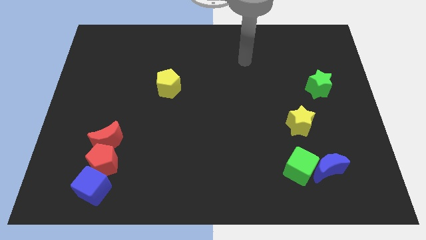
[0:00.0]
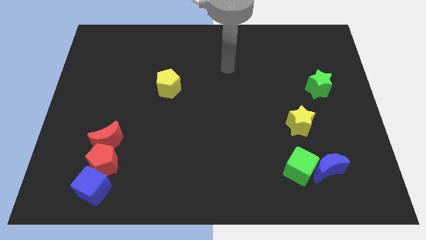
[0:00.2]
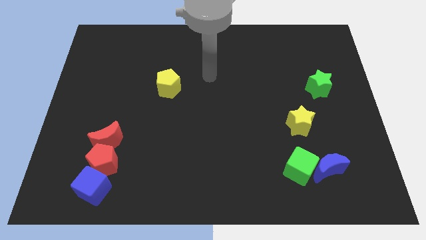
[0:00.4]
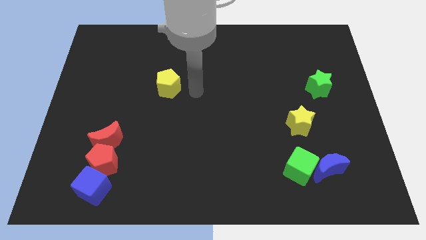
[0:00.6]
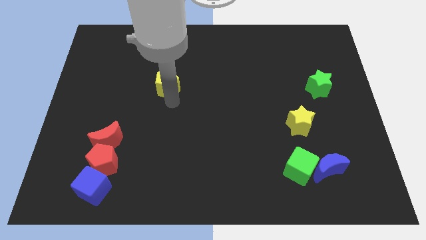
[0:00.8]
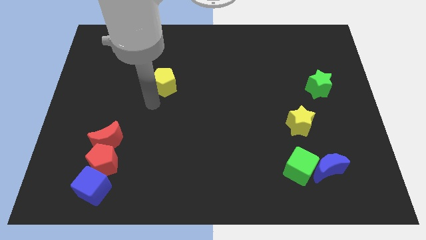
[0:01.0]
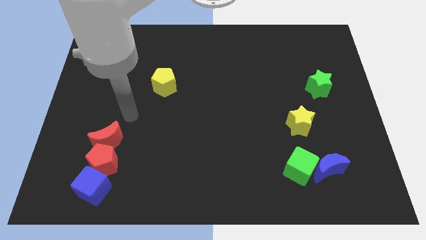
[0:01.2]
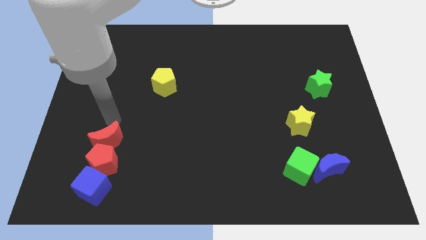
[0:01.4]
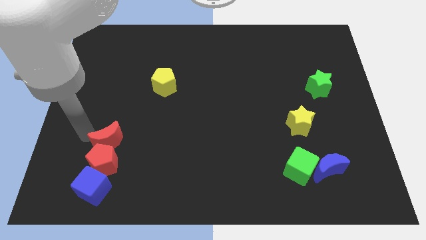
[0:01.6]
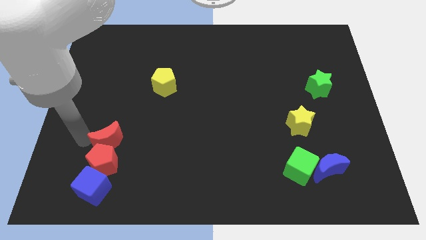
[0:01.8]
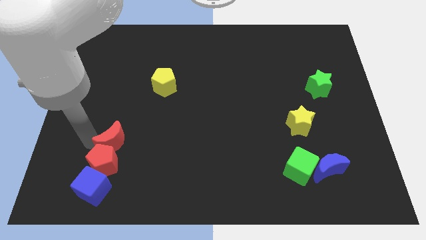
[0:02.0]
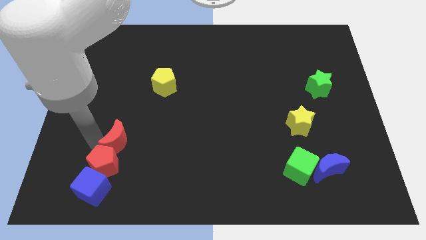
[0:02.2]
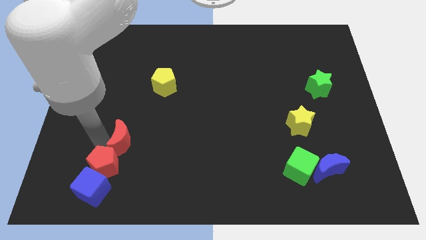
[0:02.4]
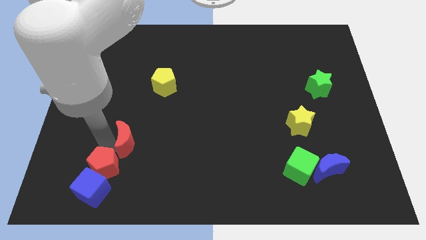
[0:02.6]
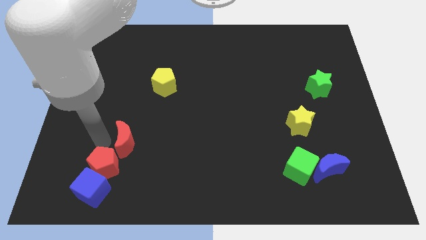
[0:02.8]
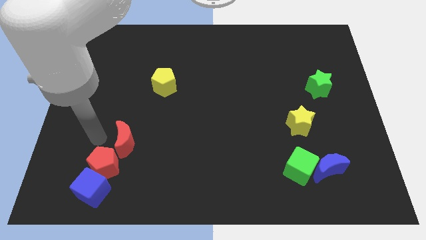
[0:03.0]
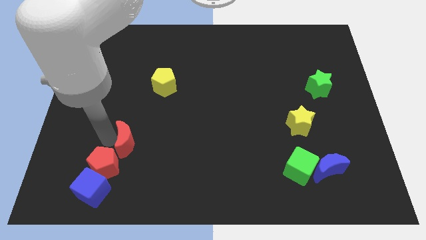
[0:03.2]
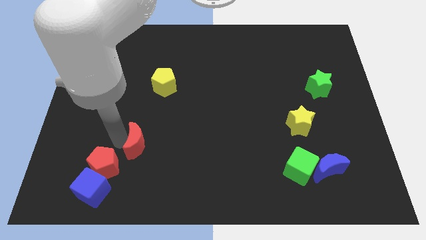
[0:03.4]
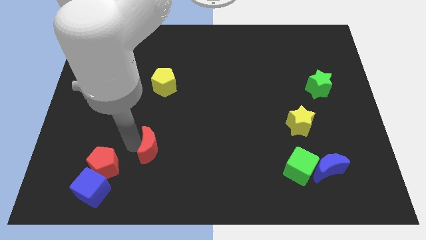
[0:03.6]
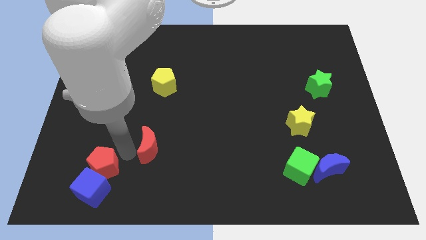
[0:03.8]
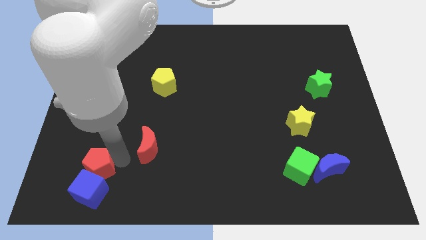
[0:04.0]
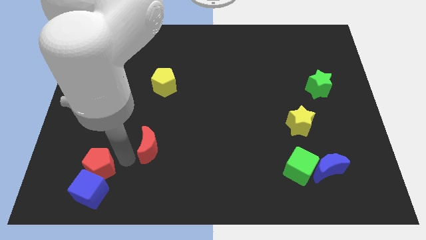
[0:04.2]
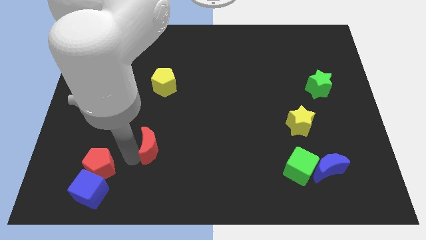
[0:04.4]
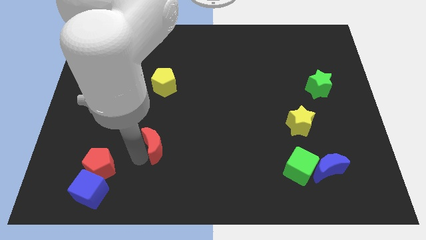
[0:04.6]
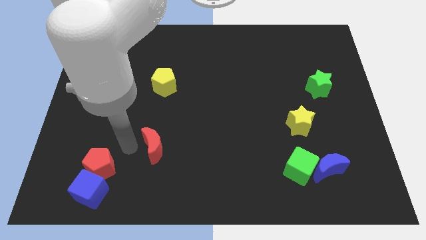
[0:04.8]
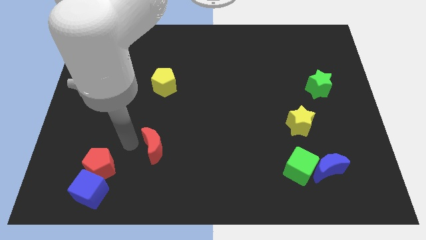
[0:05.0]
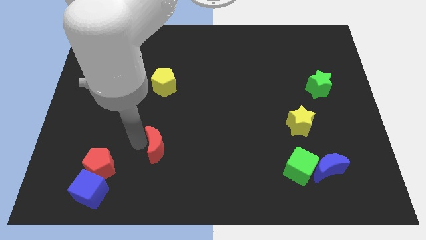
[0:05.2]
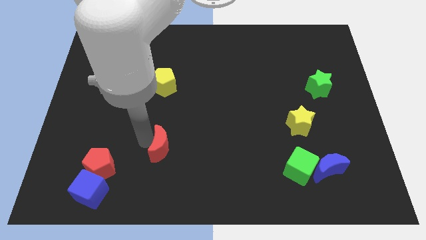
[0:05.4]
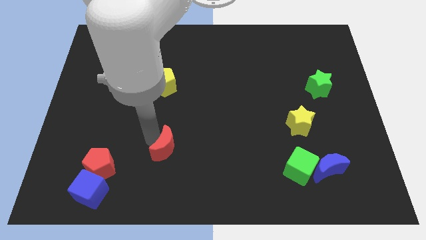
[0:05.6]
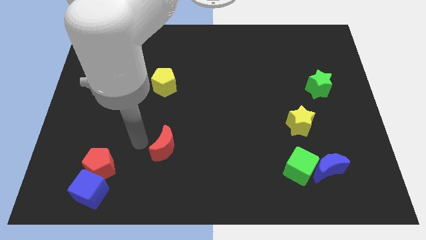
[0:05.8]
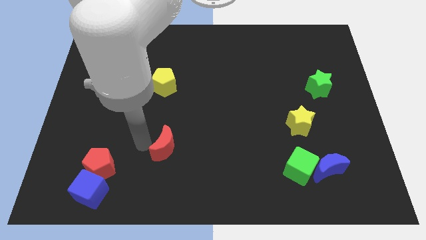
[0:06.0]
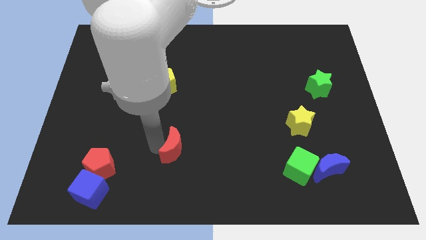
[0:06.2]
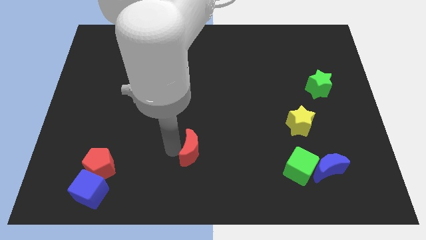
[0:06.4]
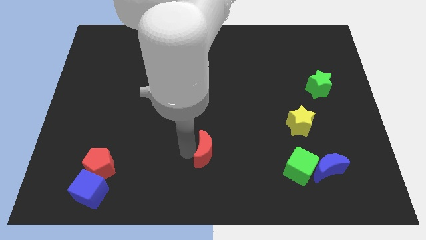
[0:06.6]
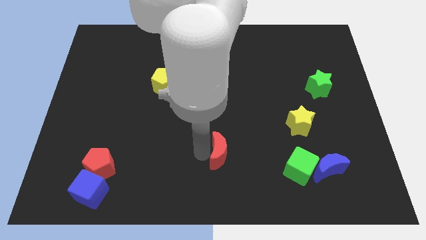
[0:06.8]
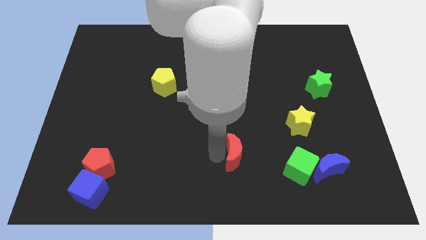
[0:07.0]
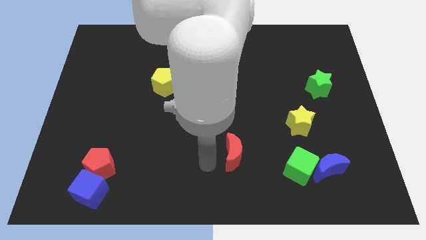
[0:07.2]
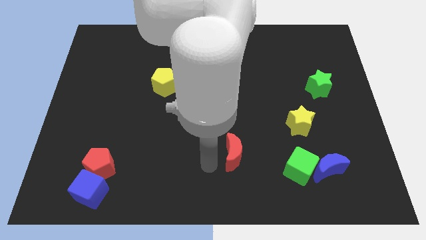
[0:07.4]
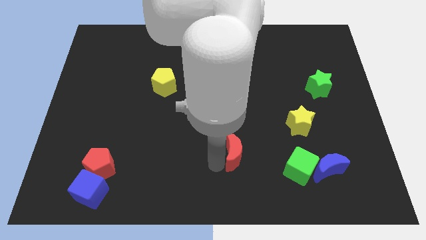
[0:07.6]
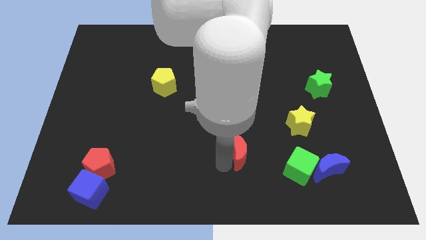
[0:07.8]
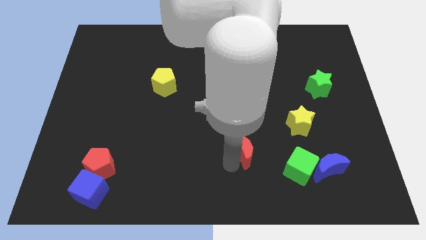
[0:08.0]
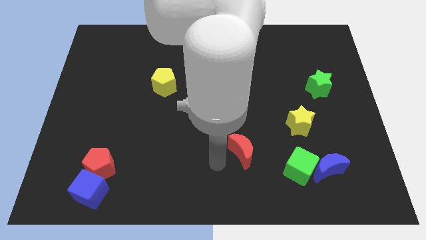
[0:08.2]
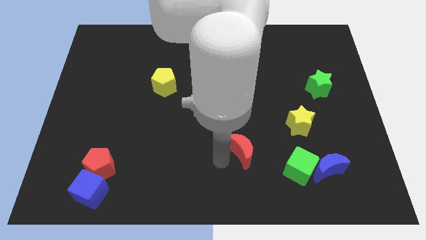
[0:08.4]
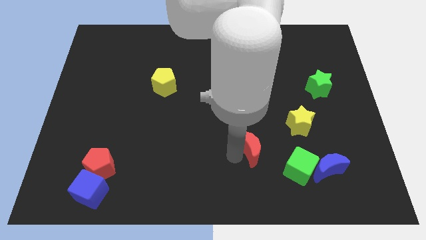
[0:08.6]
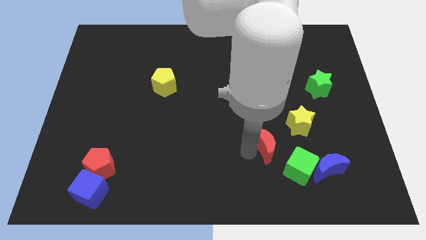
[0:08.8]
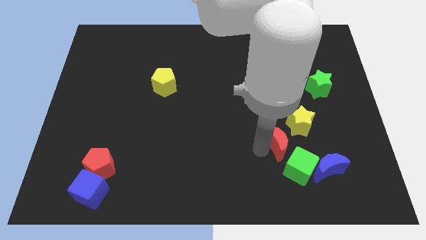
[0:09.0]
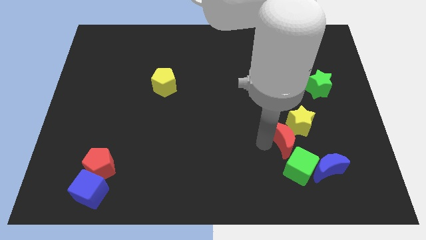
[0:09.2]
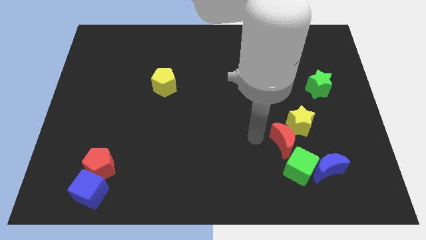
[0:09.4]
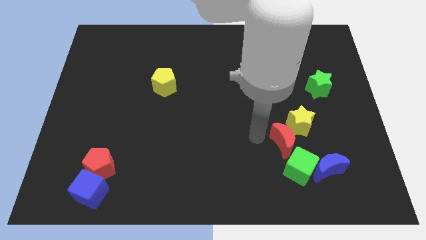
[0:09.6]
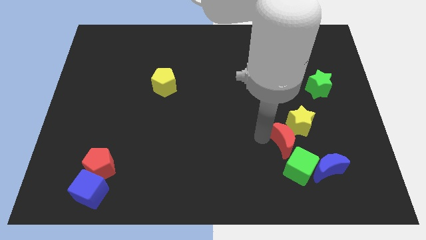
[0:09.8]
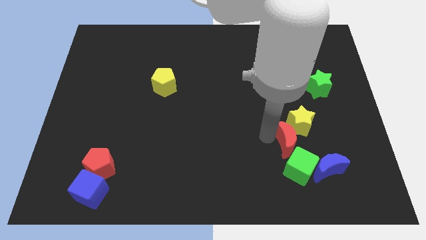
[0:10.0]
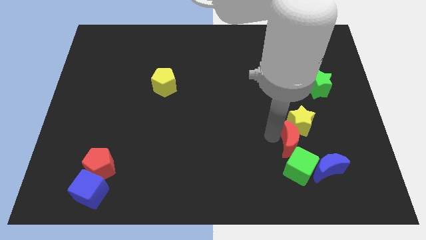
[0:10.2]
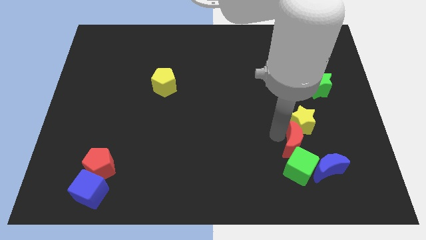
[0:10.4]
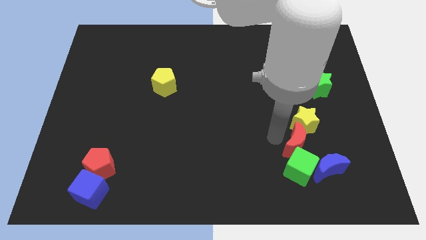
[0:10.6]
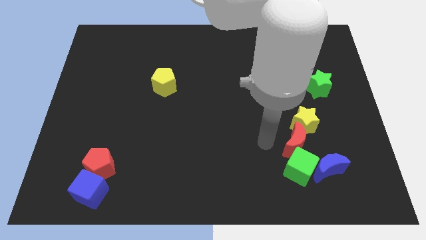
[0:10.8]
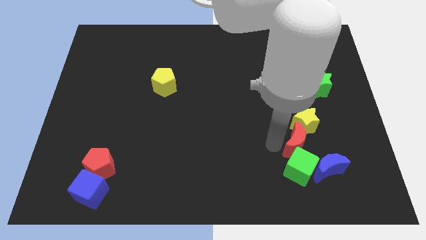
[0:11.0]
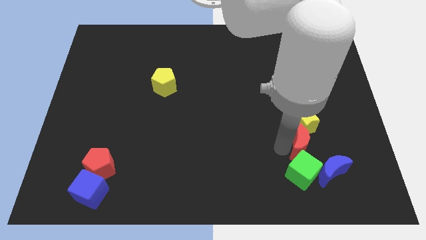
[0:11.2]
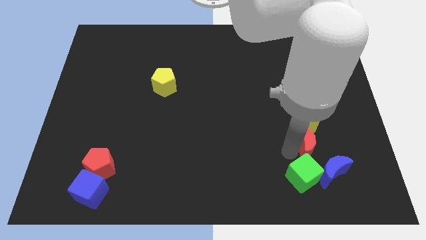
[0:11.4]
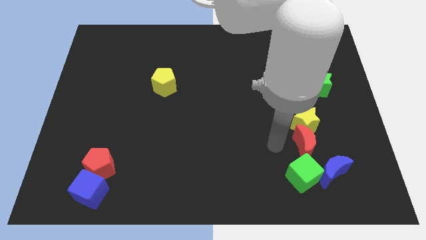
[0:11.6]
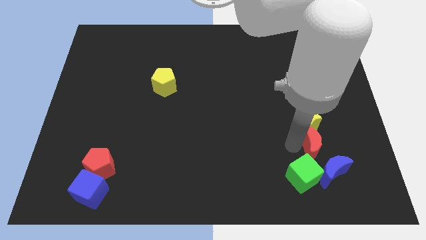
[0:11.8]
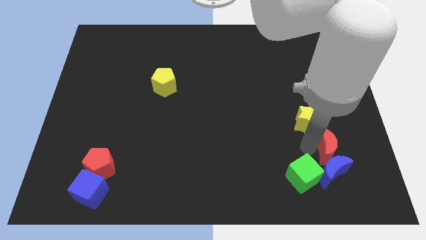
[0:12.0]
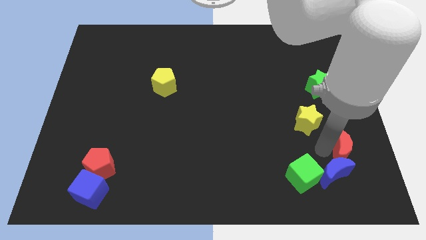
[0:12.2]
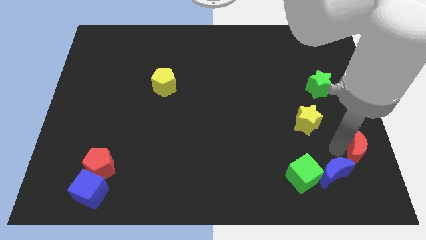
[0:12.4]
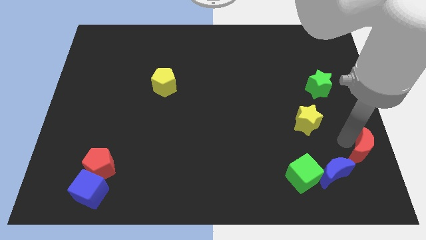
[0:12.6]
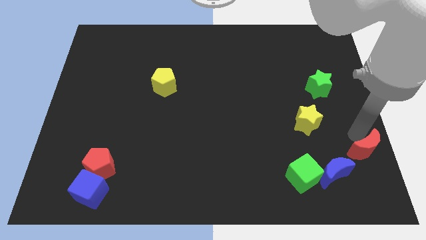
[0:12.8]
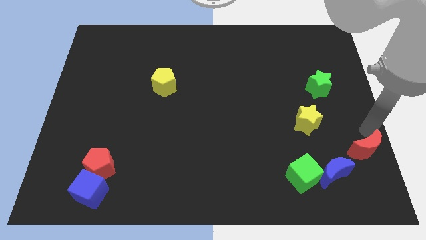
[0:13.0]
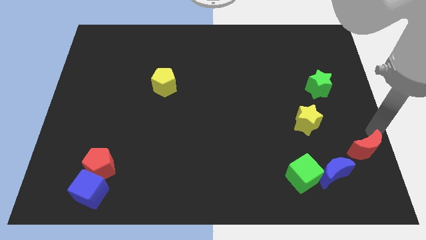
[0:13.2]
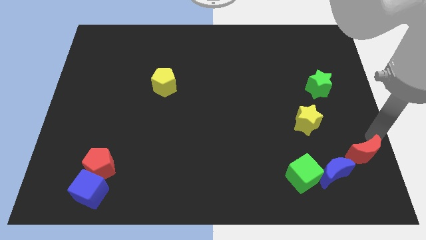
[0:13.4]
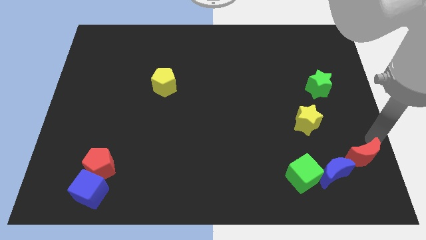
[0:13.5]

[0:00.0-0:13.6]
move the red moon to the right of the green cube
